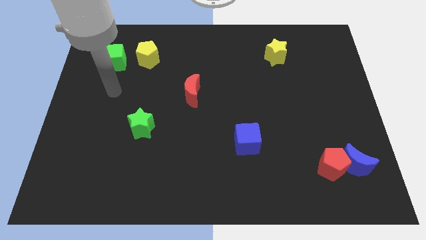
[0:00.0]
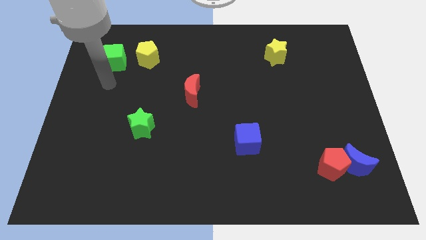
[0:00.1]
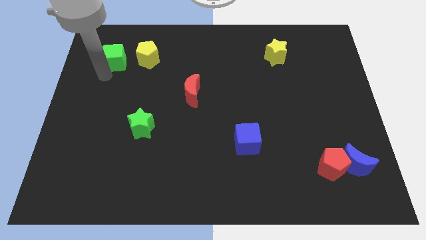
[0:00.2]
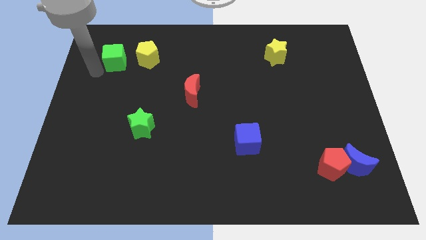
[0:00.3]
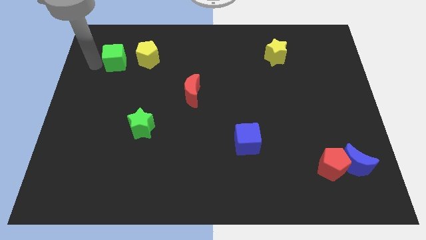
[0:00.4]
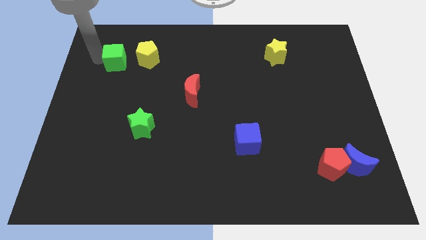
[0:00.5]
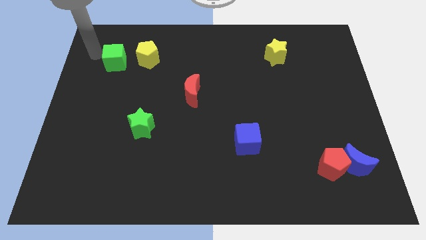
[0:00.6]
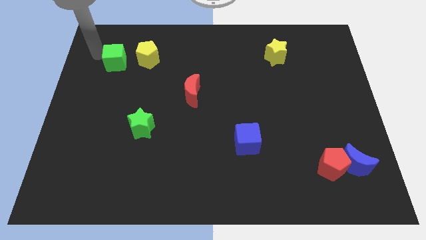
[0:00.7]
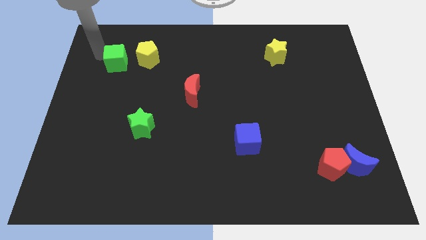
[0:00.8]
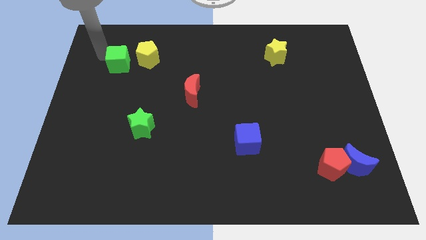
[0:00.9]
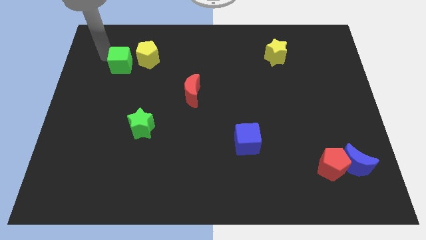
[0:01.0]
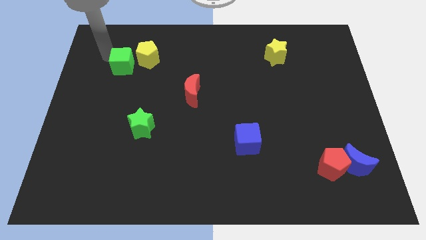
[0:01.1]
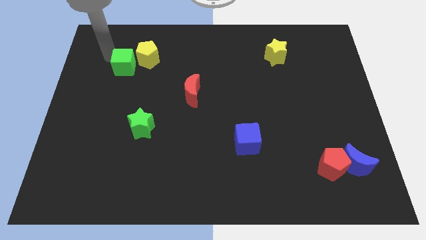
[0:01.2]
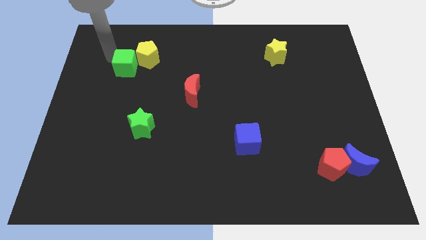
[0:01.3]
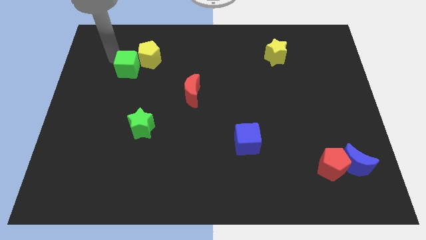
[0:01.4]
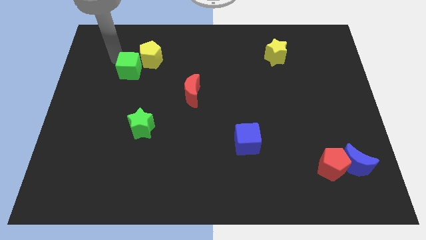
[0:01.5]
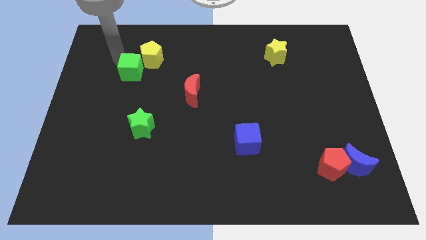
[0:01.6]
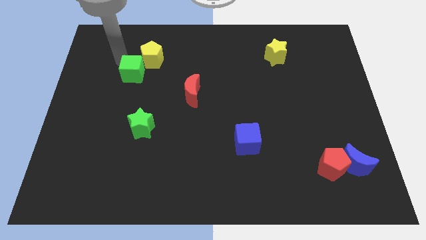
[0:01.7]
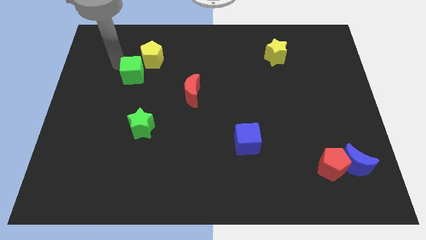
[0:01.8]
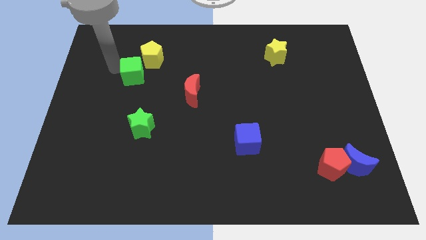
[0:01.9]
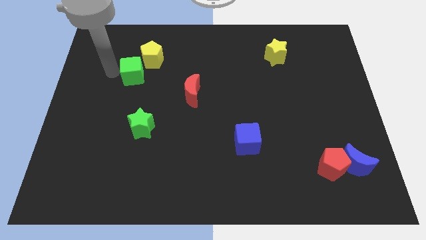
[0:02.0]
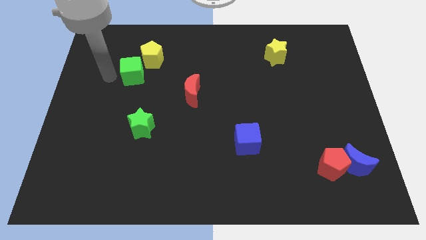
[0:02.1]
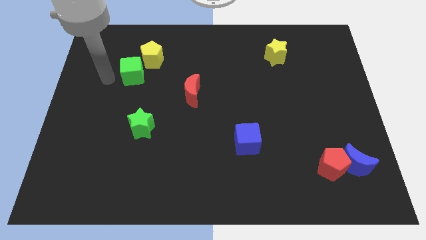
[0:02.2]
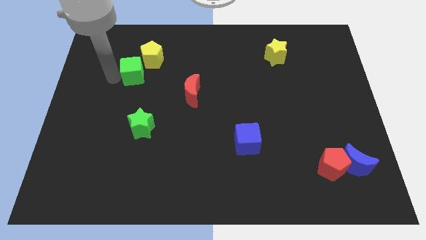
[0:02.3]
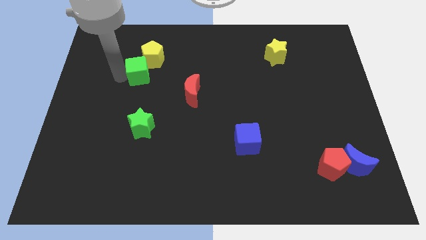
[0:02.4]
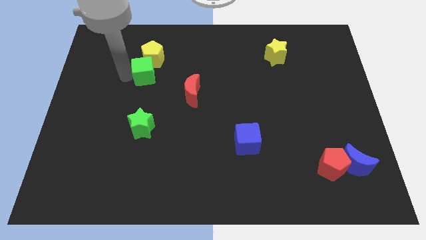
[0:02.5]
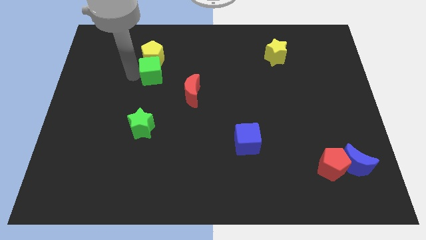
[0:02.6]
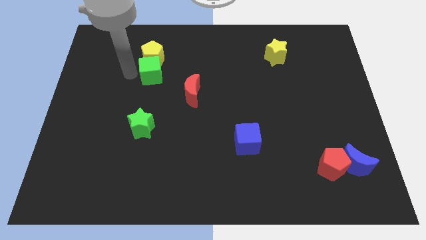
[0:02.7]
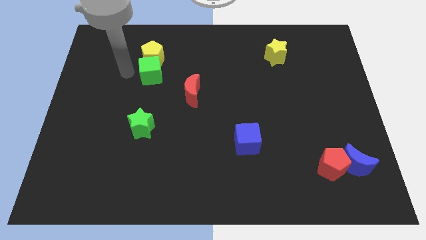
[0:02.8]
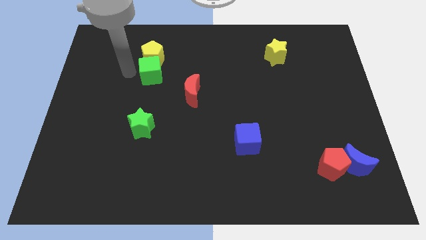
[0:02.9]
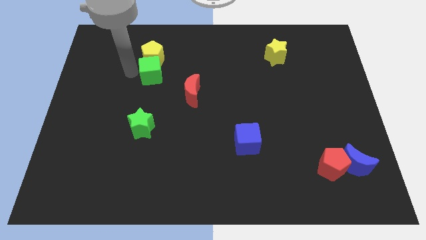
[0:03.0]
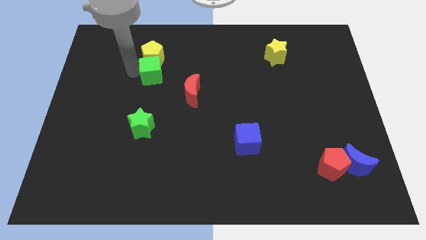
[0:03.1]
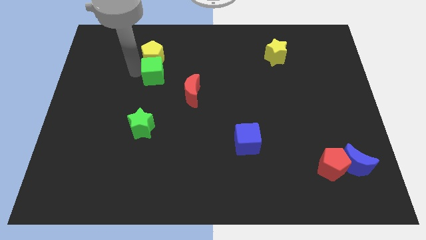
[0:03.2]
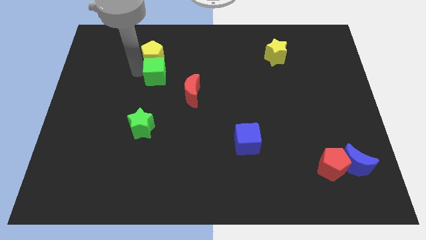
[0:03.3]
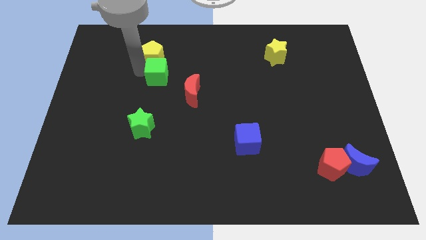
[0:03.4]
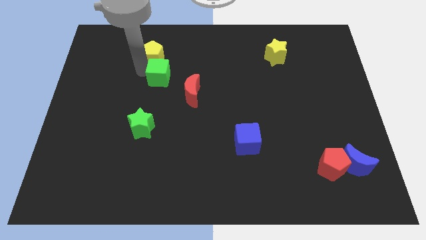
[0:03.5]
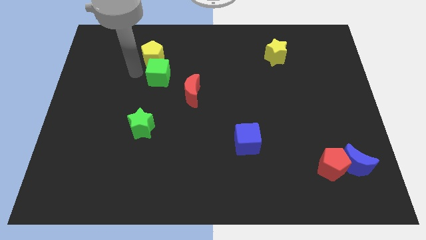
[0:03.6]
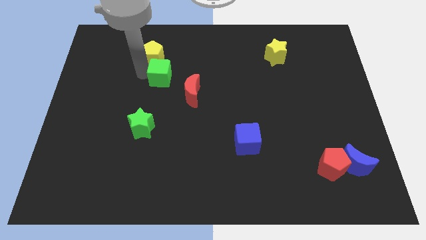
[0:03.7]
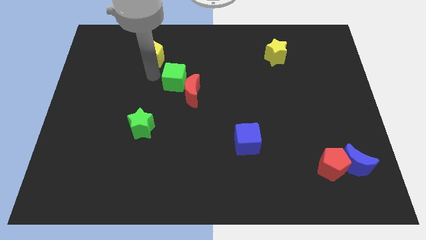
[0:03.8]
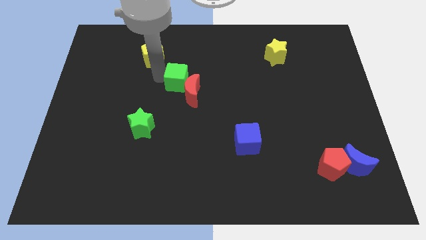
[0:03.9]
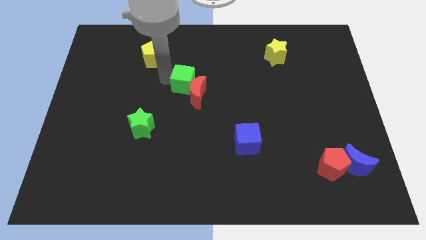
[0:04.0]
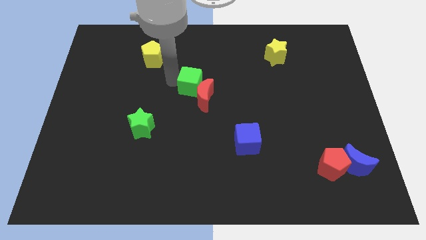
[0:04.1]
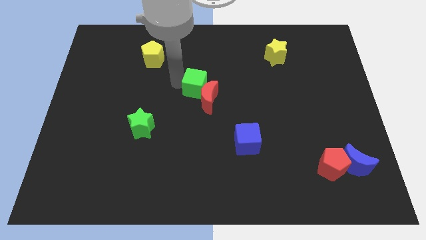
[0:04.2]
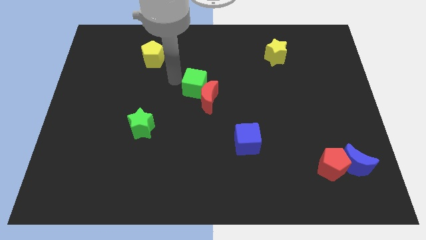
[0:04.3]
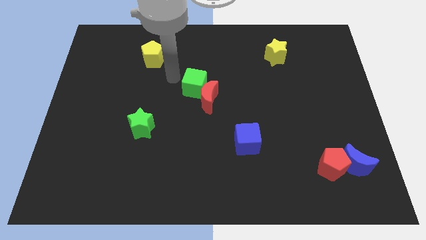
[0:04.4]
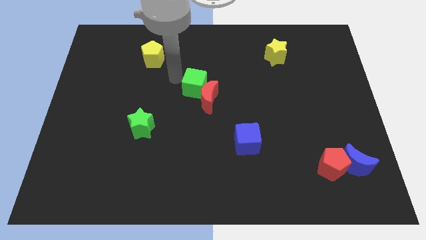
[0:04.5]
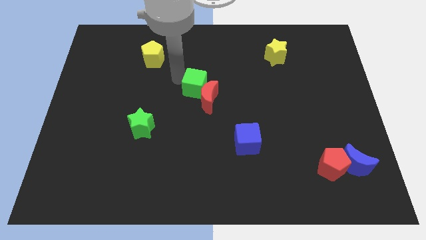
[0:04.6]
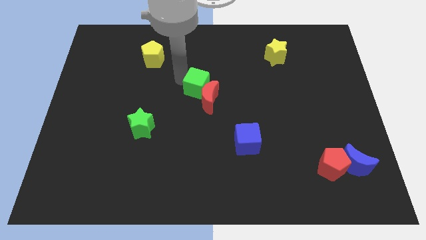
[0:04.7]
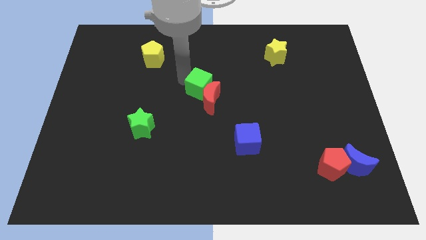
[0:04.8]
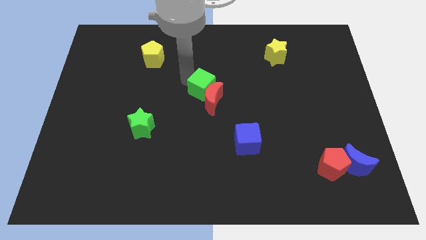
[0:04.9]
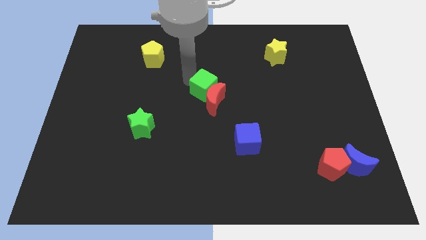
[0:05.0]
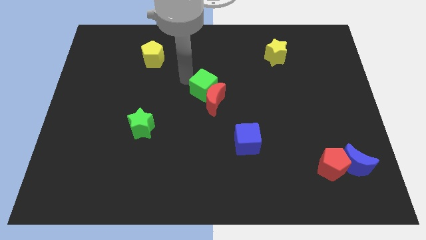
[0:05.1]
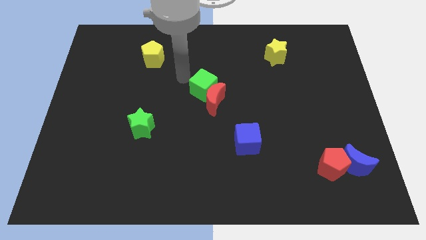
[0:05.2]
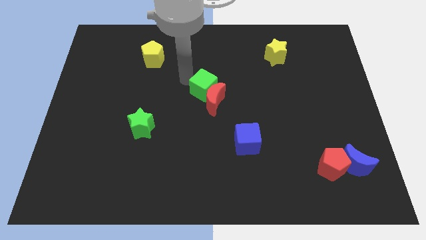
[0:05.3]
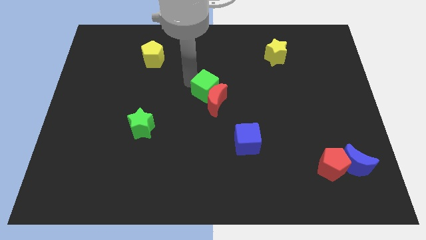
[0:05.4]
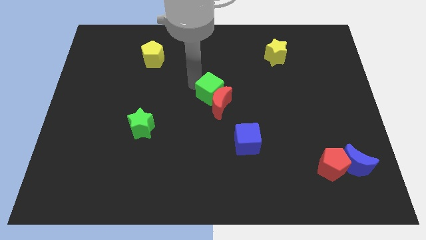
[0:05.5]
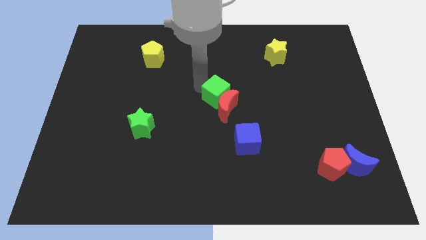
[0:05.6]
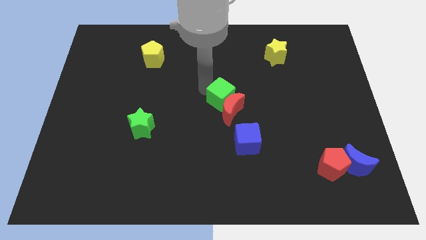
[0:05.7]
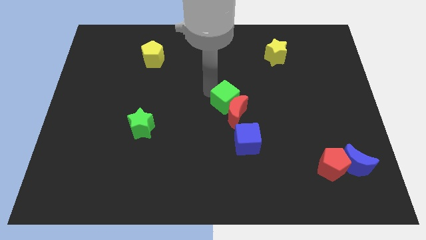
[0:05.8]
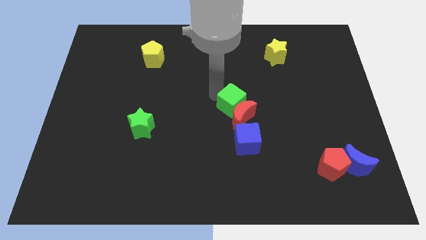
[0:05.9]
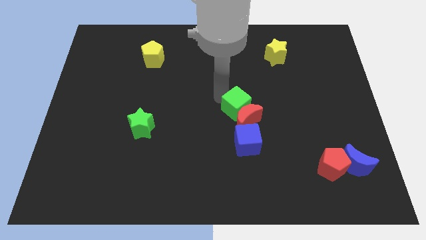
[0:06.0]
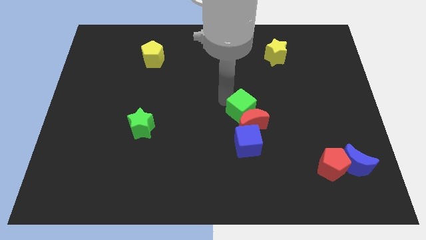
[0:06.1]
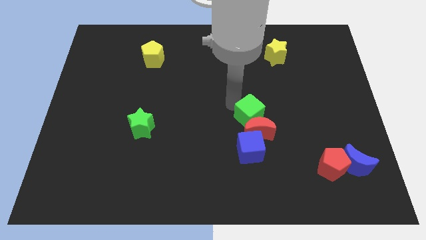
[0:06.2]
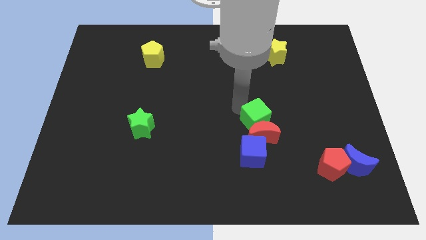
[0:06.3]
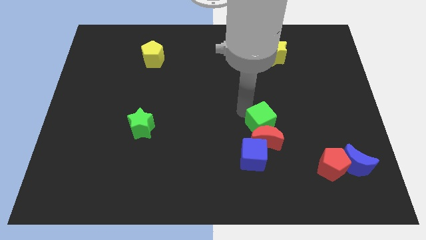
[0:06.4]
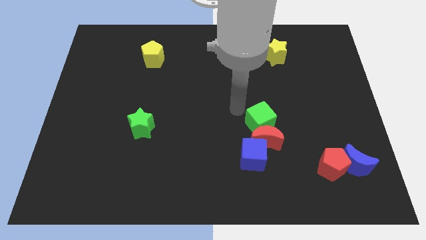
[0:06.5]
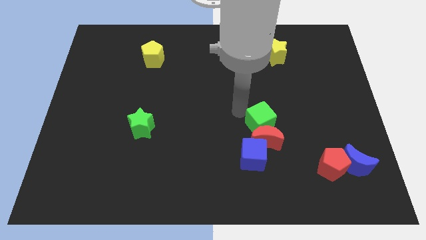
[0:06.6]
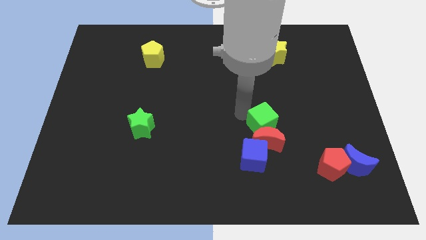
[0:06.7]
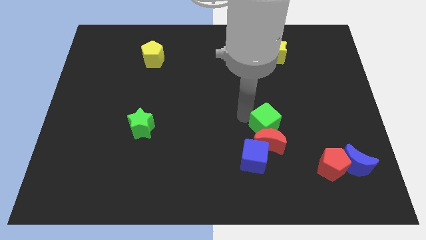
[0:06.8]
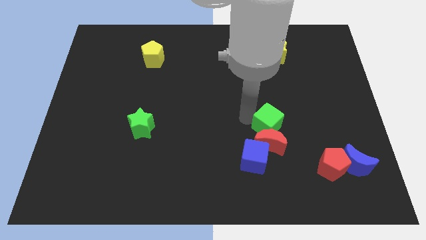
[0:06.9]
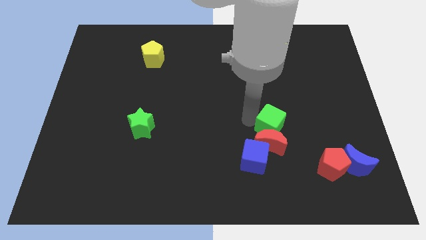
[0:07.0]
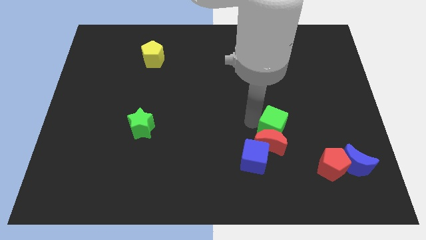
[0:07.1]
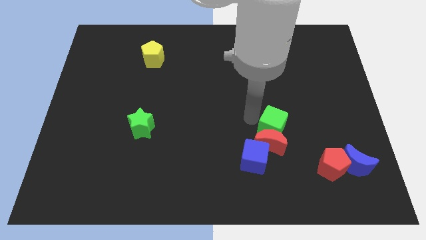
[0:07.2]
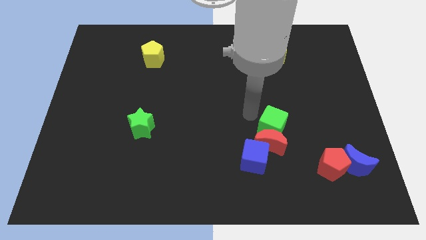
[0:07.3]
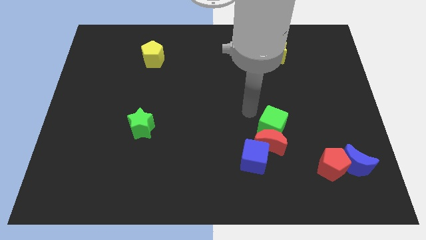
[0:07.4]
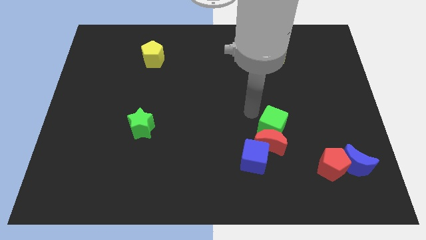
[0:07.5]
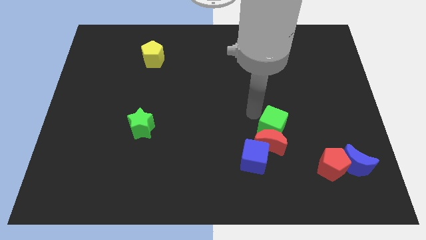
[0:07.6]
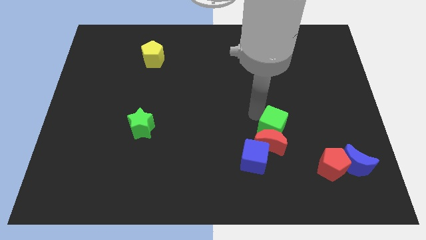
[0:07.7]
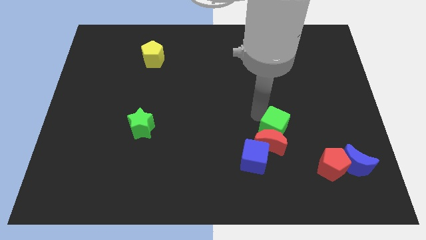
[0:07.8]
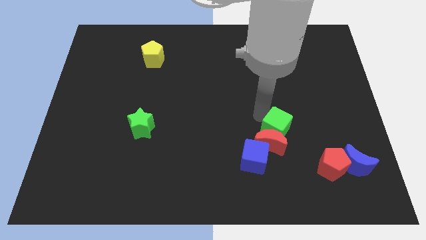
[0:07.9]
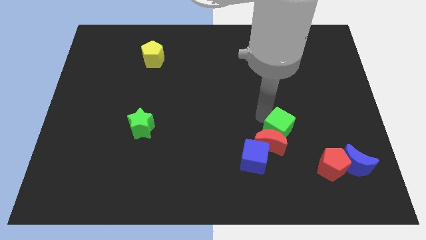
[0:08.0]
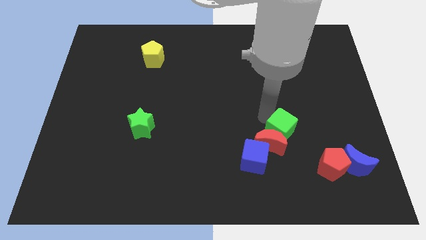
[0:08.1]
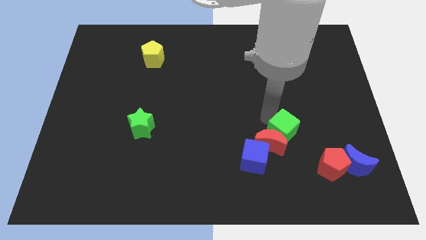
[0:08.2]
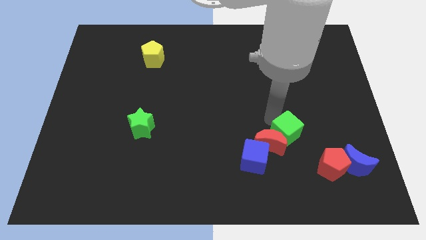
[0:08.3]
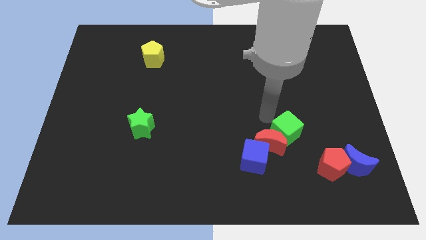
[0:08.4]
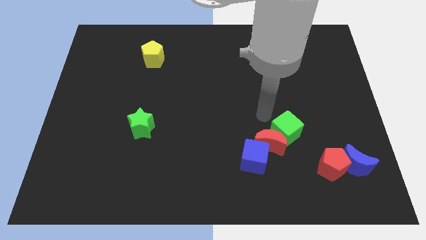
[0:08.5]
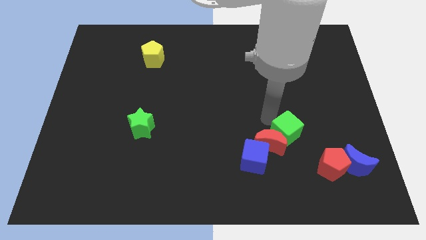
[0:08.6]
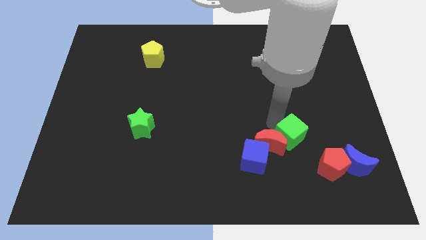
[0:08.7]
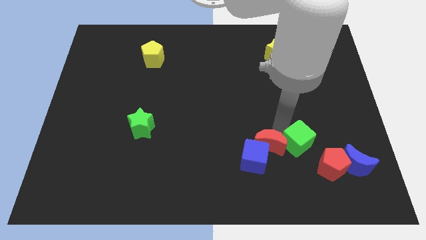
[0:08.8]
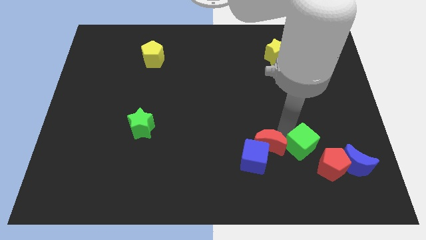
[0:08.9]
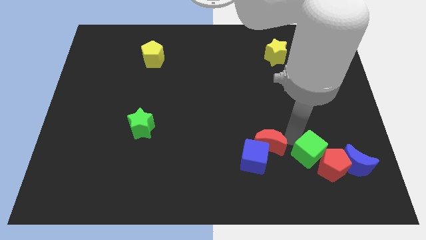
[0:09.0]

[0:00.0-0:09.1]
move the green cube next to the red pentagon

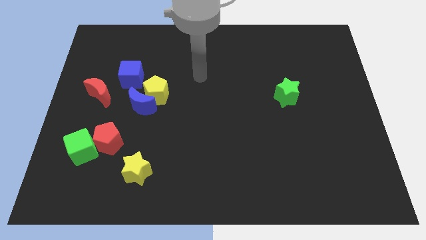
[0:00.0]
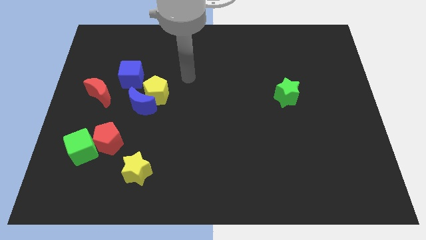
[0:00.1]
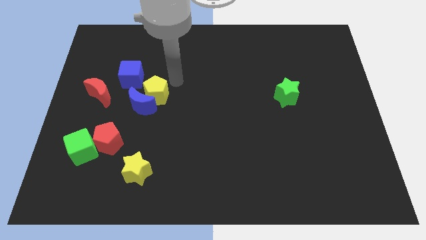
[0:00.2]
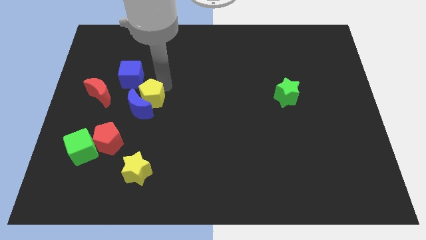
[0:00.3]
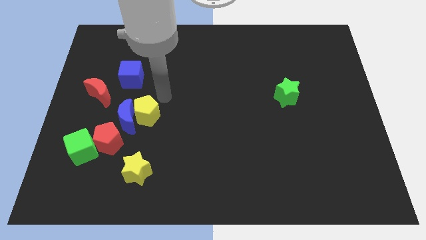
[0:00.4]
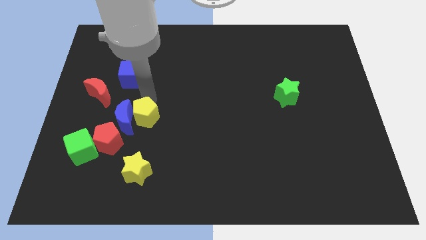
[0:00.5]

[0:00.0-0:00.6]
slide the blue moon close to the red pentagon
